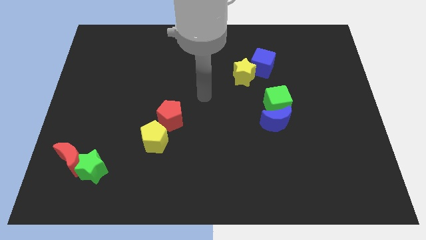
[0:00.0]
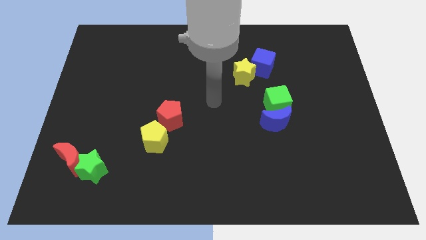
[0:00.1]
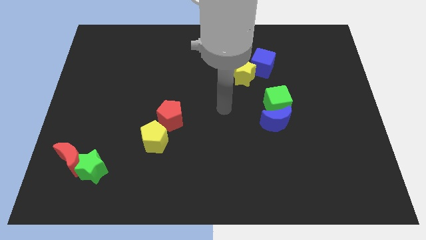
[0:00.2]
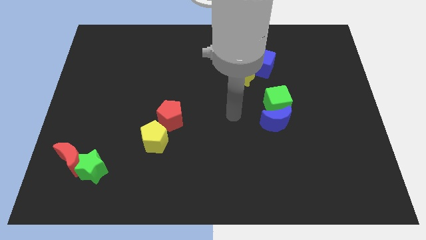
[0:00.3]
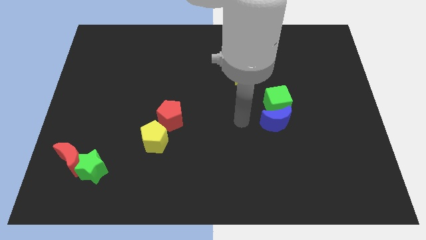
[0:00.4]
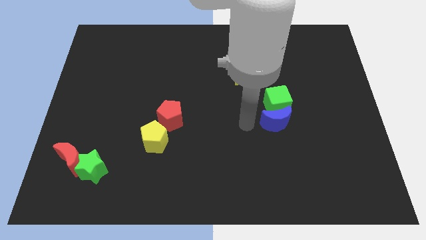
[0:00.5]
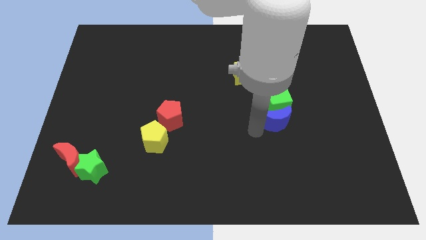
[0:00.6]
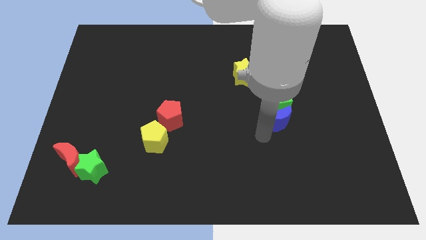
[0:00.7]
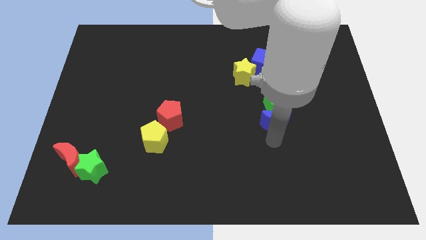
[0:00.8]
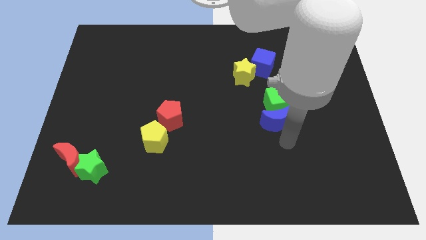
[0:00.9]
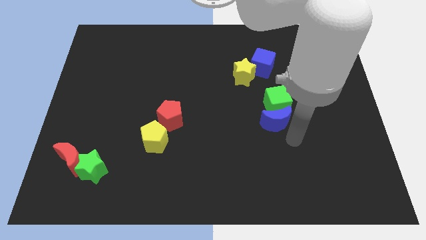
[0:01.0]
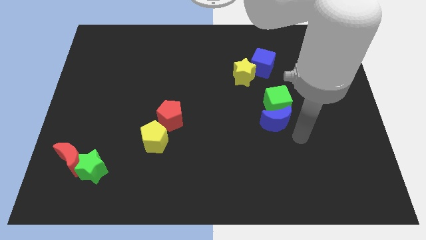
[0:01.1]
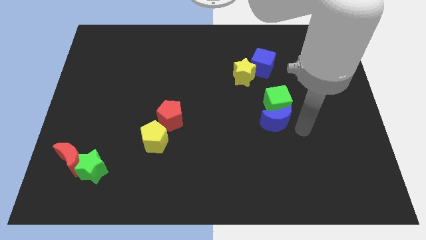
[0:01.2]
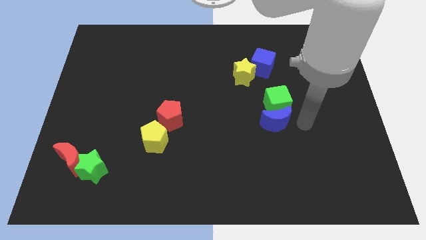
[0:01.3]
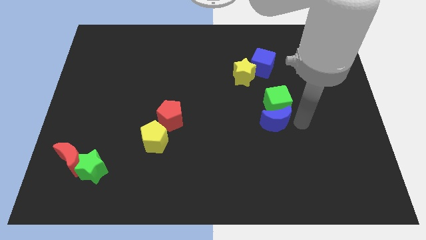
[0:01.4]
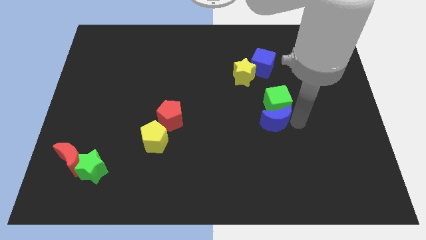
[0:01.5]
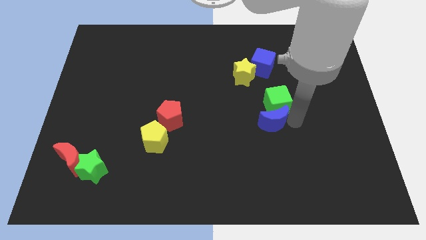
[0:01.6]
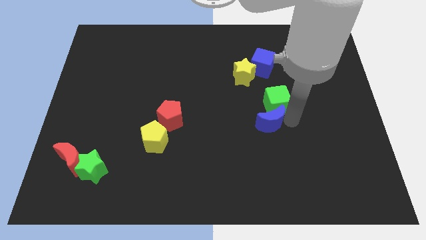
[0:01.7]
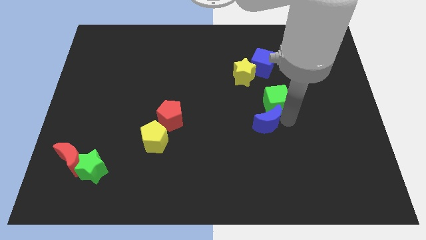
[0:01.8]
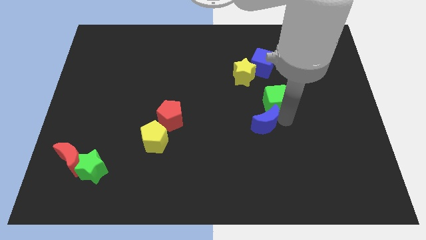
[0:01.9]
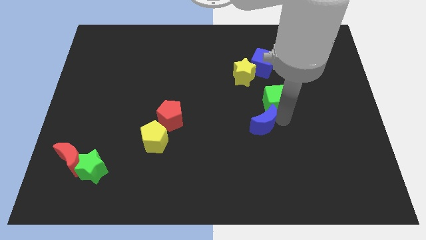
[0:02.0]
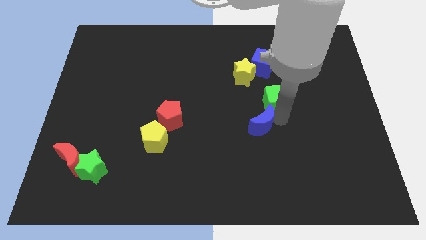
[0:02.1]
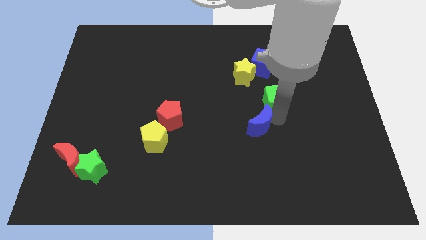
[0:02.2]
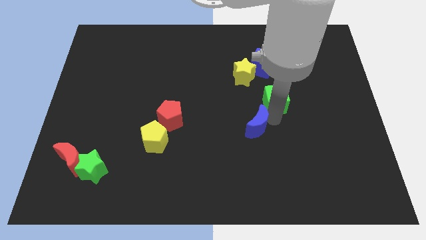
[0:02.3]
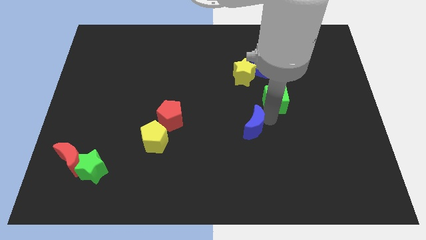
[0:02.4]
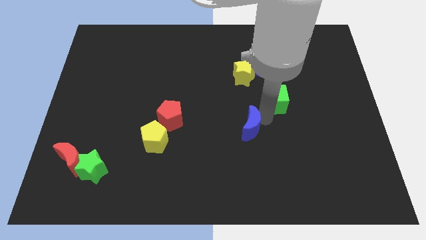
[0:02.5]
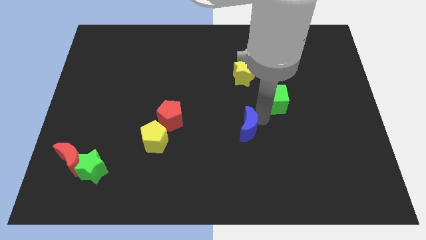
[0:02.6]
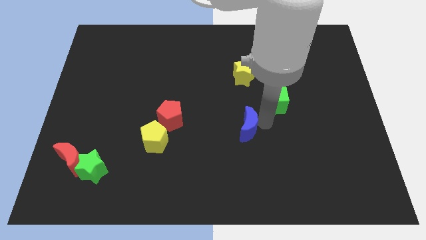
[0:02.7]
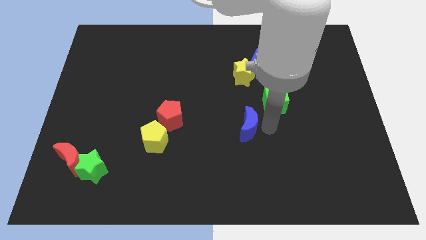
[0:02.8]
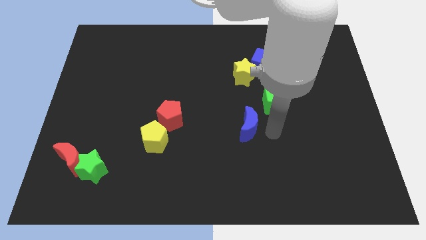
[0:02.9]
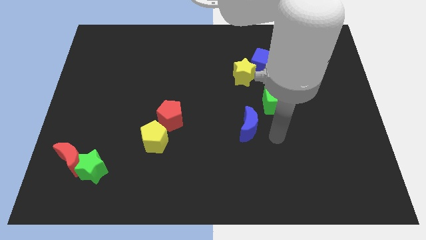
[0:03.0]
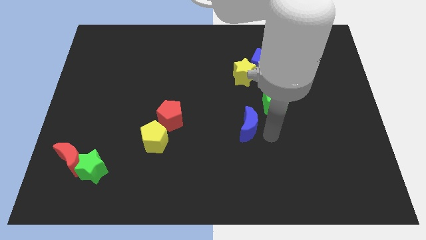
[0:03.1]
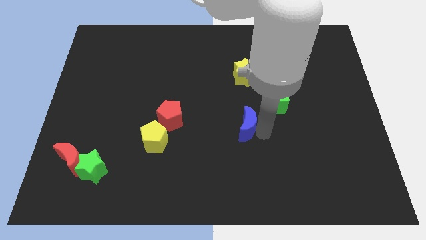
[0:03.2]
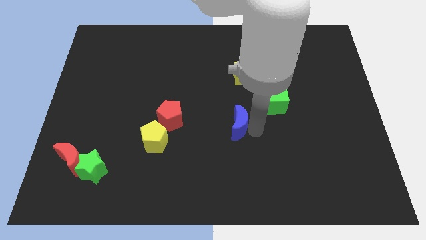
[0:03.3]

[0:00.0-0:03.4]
slightly slide the blue moon left

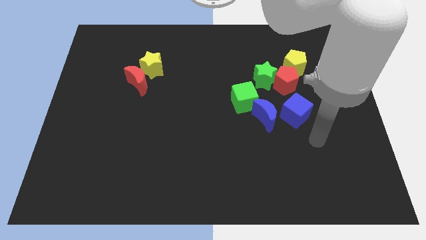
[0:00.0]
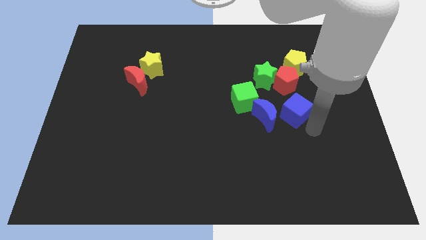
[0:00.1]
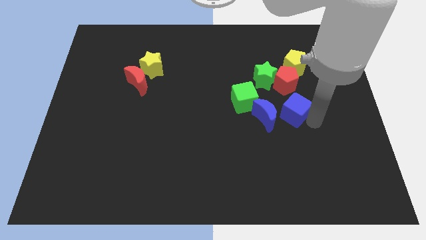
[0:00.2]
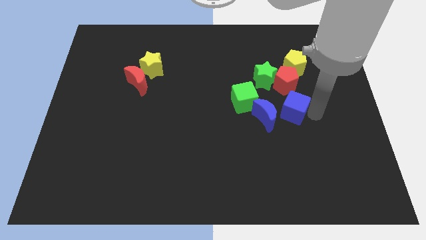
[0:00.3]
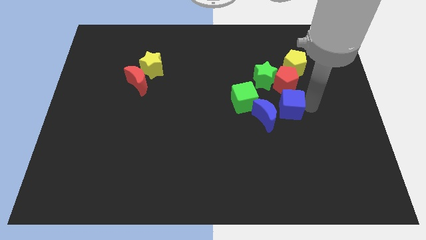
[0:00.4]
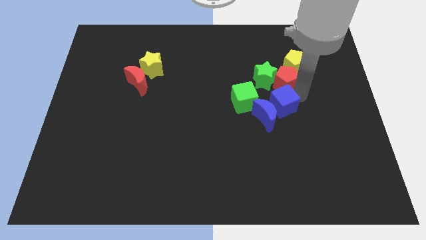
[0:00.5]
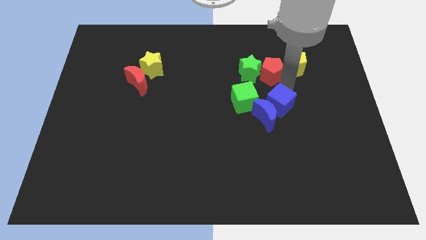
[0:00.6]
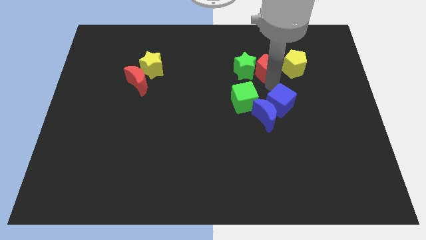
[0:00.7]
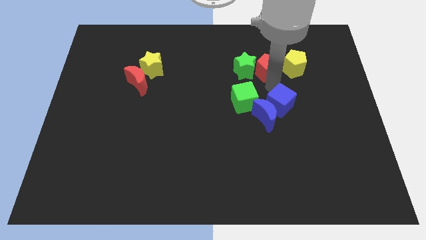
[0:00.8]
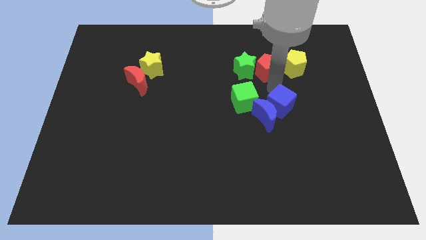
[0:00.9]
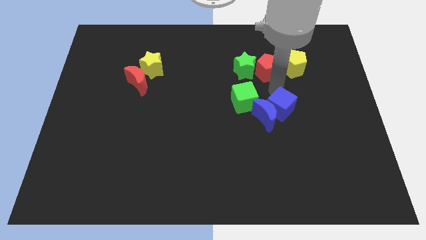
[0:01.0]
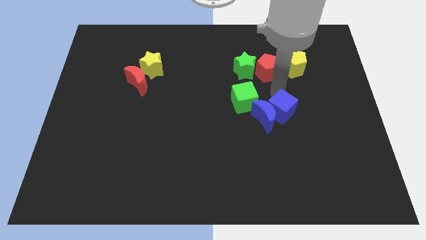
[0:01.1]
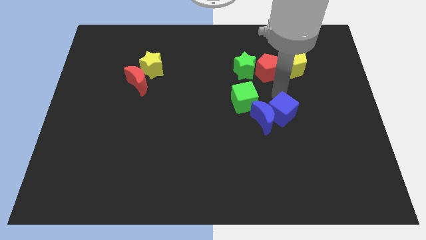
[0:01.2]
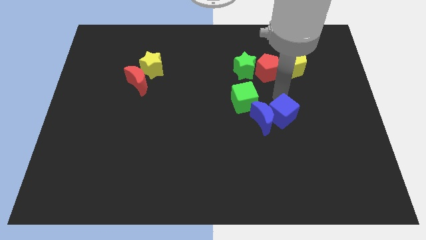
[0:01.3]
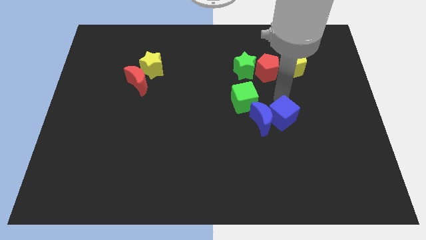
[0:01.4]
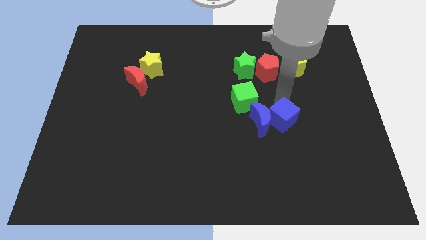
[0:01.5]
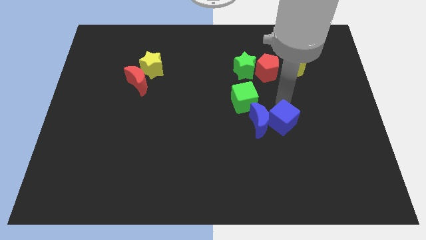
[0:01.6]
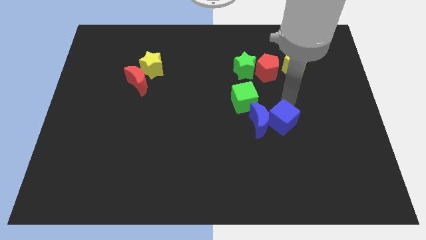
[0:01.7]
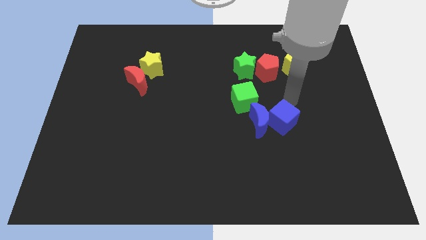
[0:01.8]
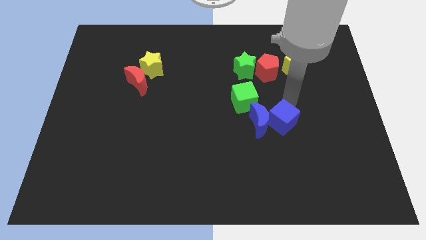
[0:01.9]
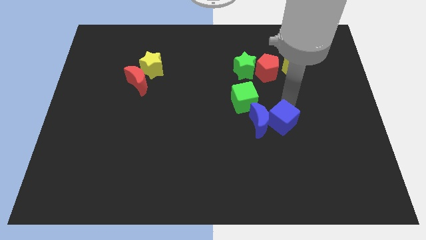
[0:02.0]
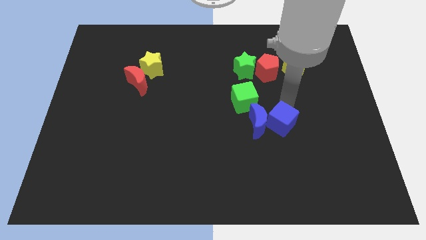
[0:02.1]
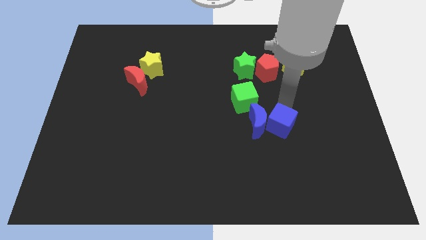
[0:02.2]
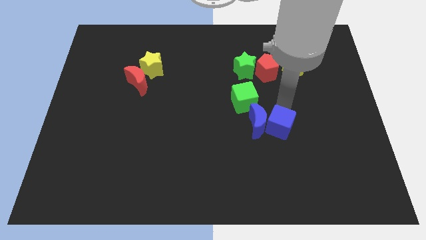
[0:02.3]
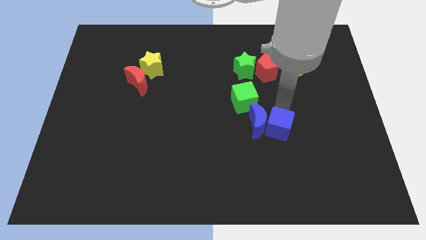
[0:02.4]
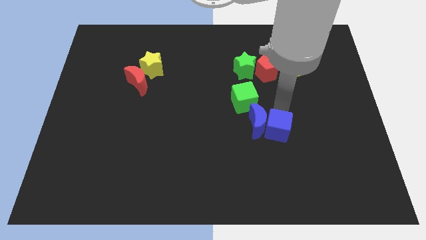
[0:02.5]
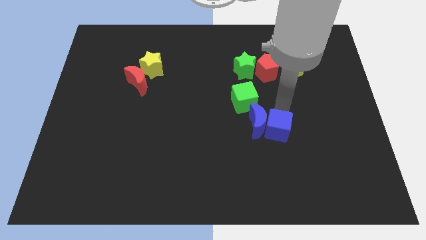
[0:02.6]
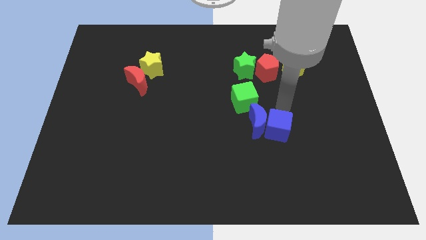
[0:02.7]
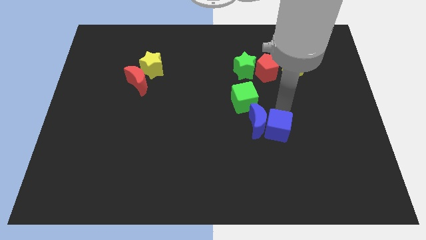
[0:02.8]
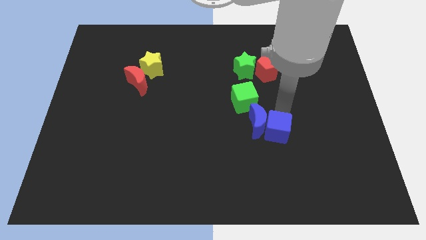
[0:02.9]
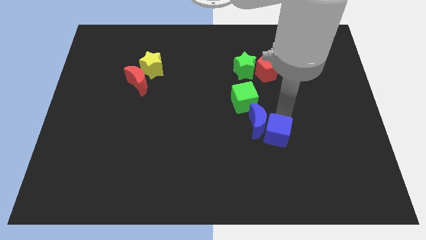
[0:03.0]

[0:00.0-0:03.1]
slightly push the blue cube down and left

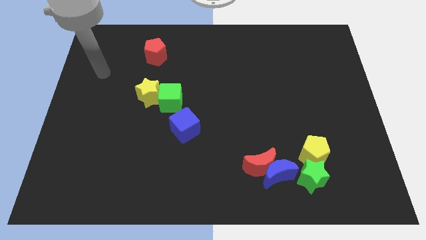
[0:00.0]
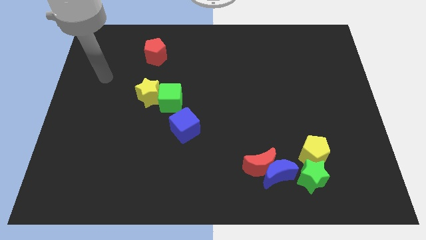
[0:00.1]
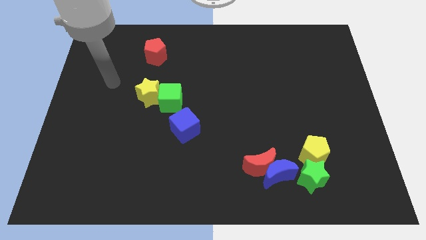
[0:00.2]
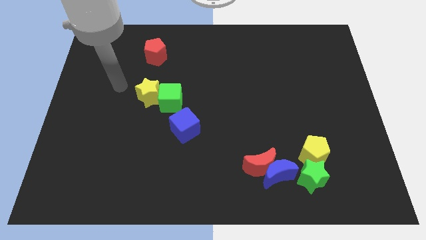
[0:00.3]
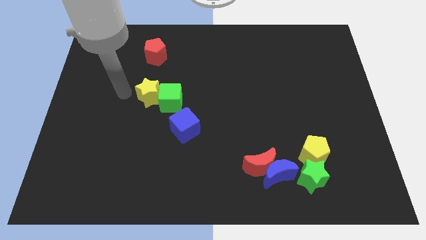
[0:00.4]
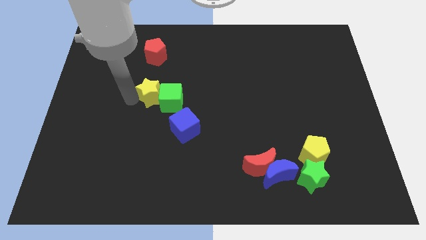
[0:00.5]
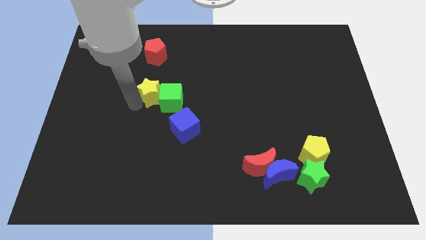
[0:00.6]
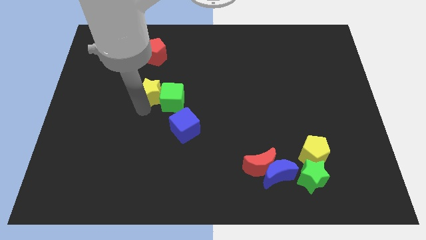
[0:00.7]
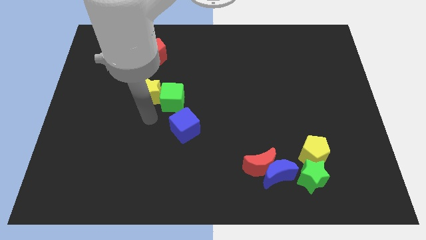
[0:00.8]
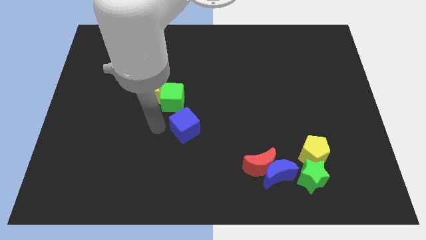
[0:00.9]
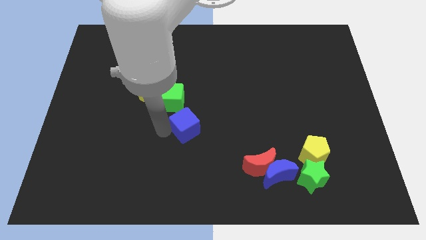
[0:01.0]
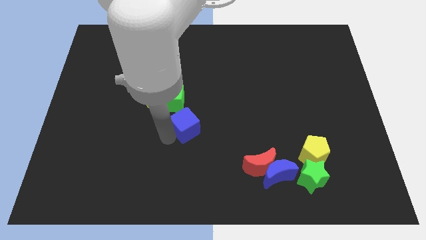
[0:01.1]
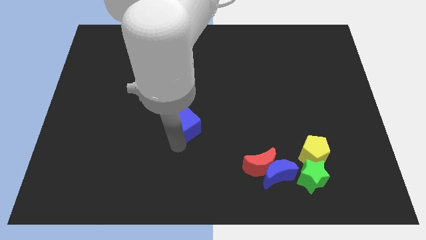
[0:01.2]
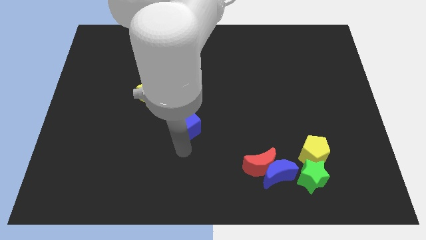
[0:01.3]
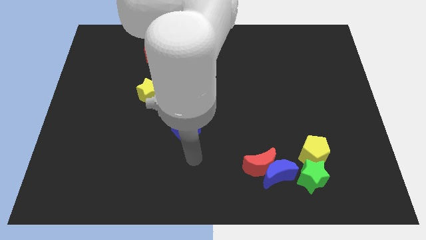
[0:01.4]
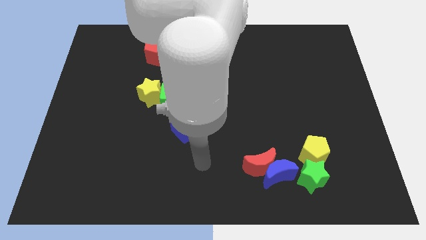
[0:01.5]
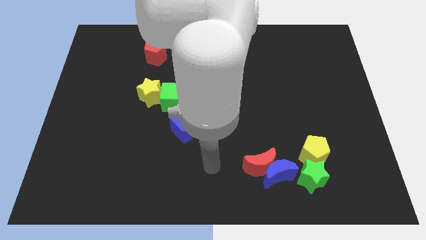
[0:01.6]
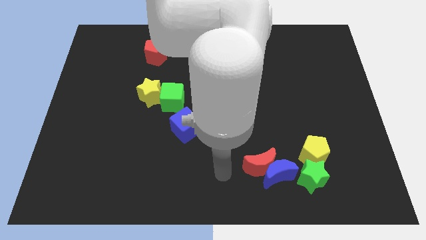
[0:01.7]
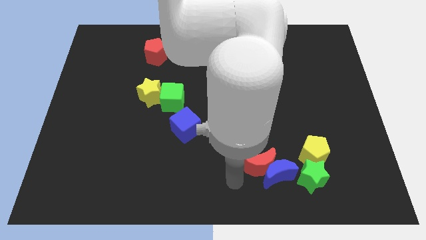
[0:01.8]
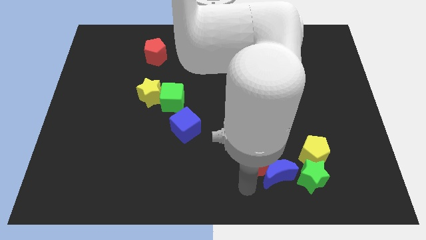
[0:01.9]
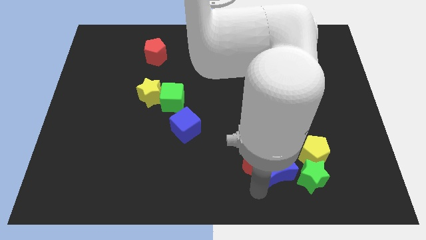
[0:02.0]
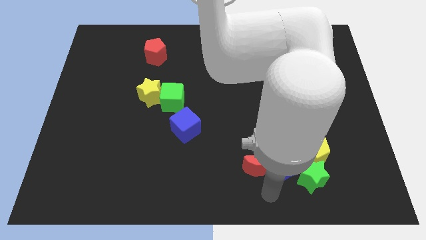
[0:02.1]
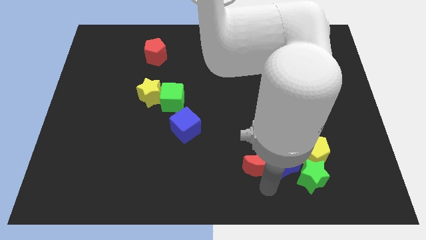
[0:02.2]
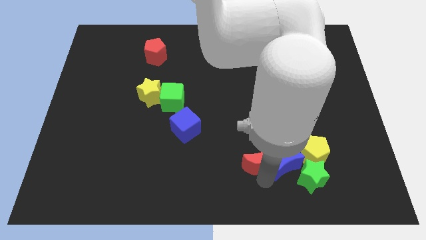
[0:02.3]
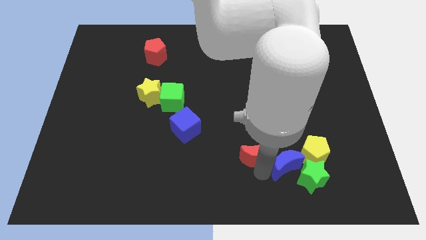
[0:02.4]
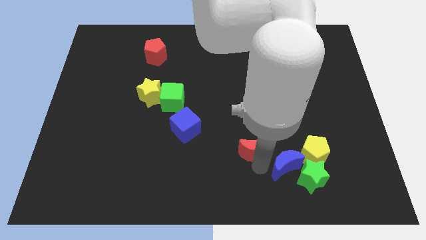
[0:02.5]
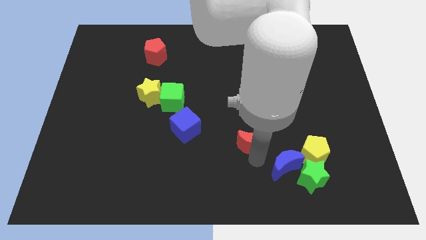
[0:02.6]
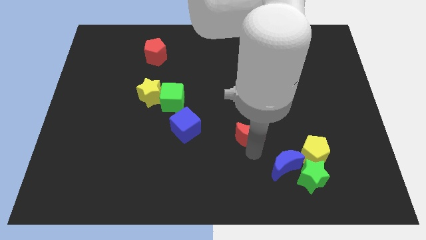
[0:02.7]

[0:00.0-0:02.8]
slightly move the red moon up
